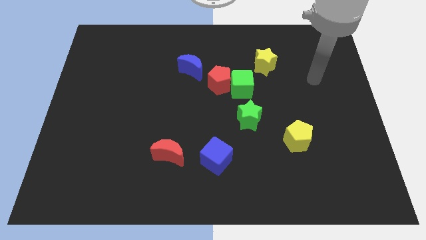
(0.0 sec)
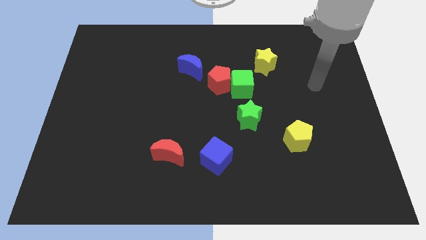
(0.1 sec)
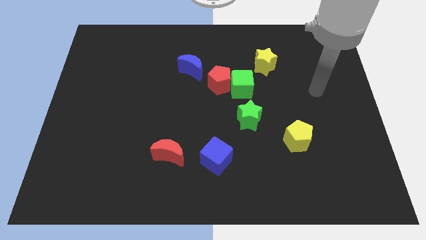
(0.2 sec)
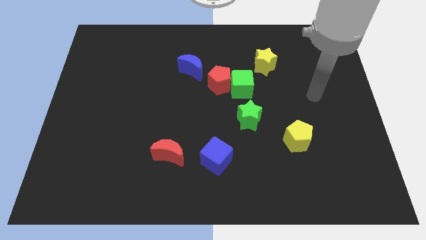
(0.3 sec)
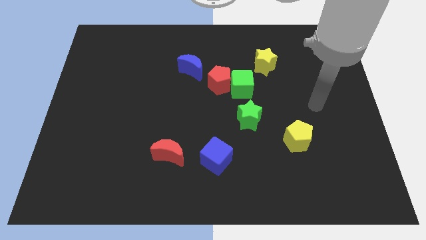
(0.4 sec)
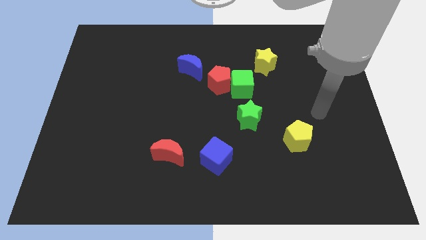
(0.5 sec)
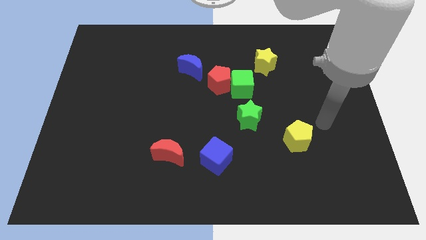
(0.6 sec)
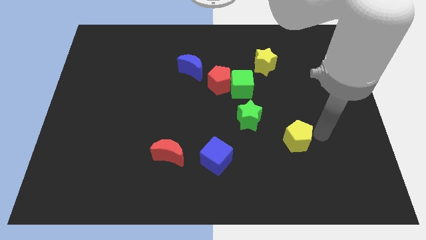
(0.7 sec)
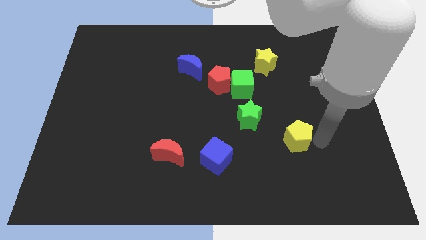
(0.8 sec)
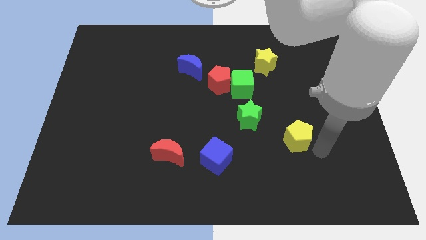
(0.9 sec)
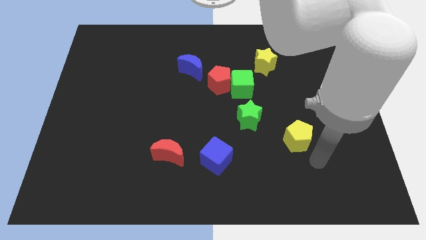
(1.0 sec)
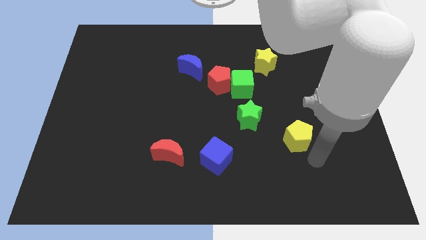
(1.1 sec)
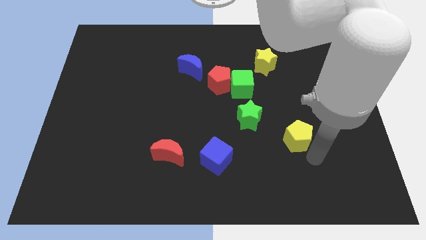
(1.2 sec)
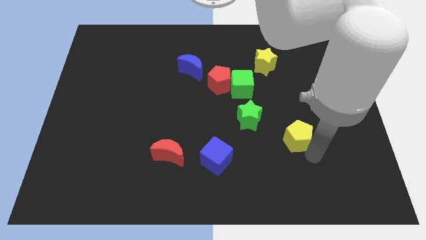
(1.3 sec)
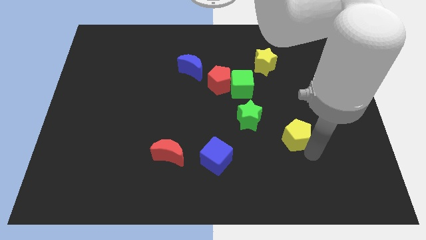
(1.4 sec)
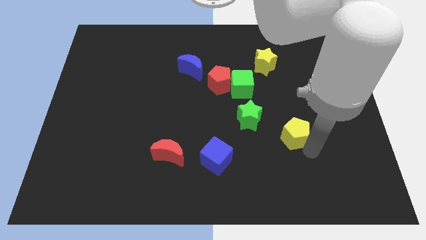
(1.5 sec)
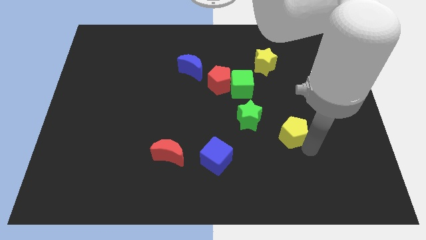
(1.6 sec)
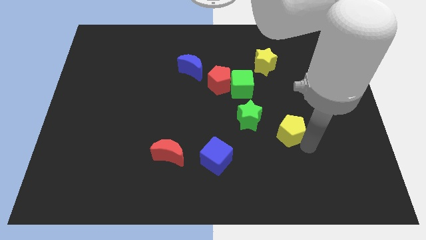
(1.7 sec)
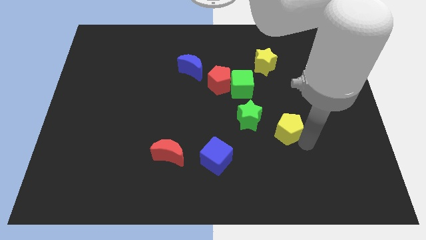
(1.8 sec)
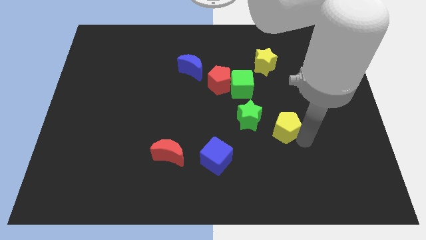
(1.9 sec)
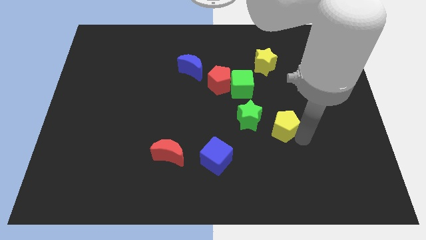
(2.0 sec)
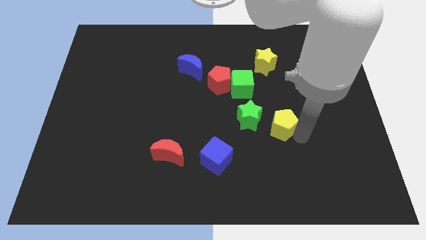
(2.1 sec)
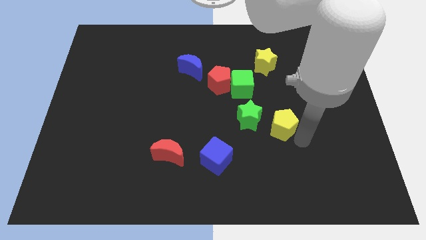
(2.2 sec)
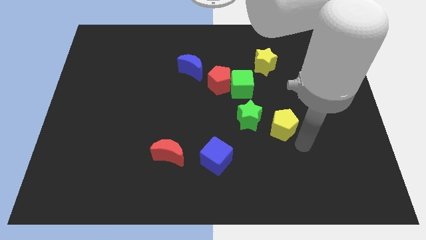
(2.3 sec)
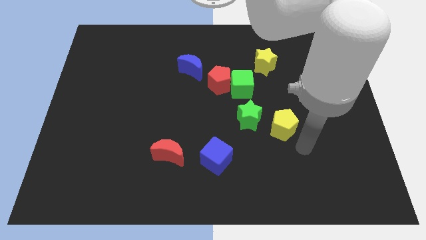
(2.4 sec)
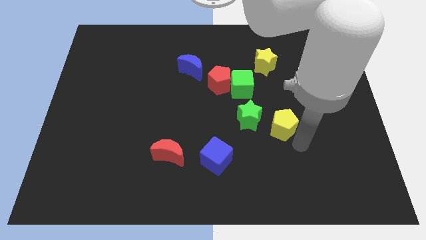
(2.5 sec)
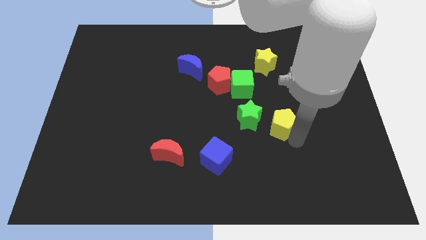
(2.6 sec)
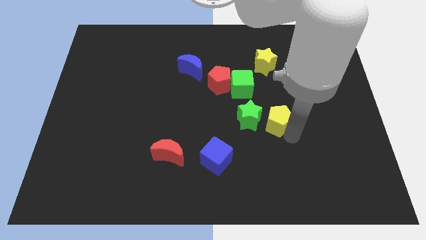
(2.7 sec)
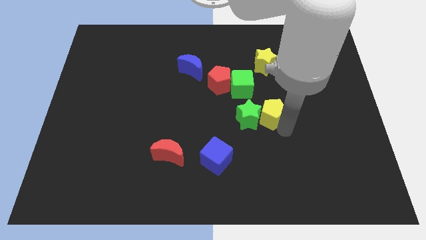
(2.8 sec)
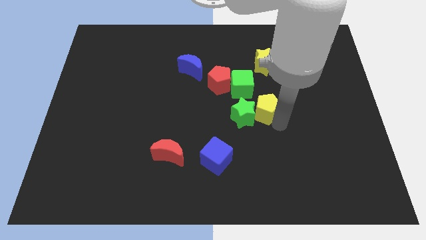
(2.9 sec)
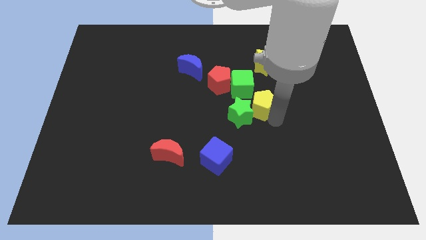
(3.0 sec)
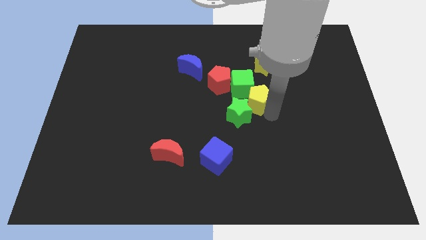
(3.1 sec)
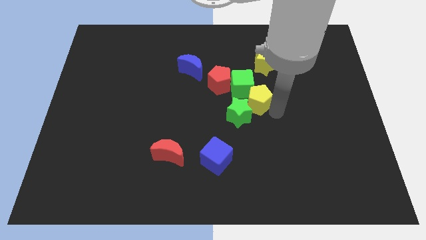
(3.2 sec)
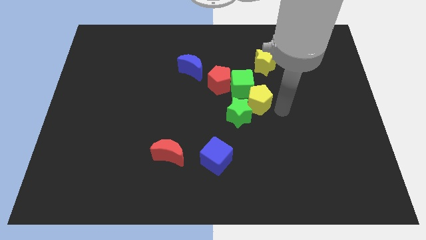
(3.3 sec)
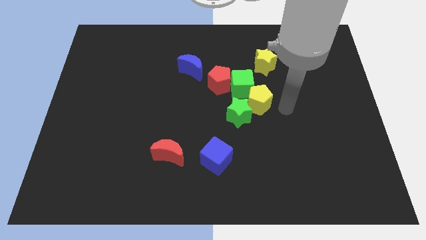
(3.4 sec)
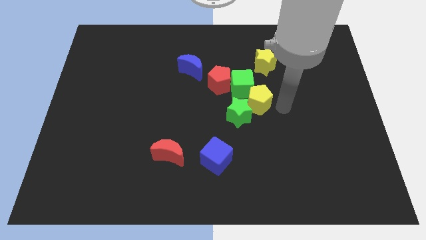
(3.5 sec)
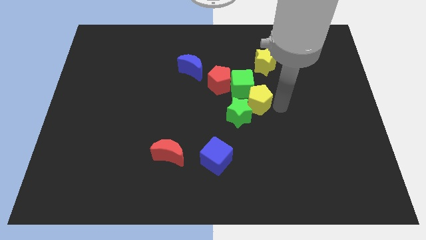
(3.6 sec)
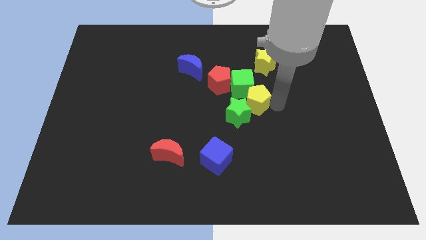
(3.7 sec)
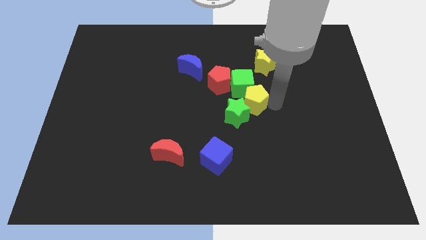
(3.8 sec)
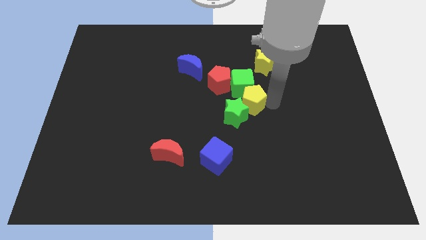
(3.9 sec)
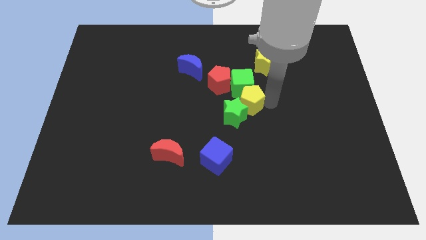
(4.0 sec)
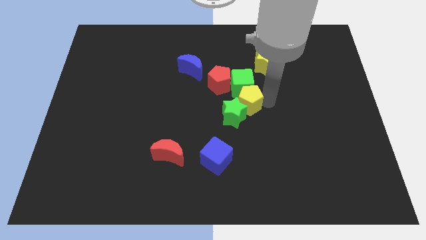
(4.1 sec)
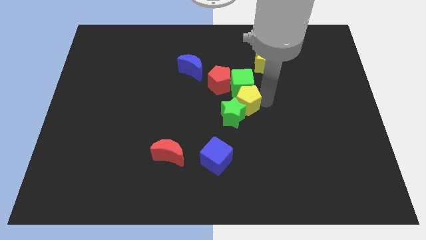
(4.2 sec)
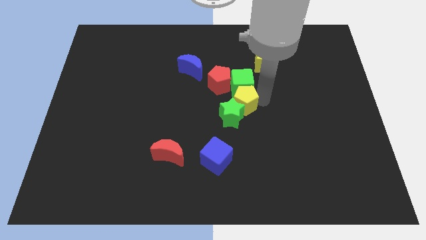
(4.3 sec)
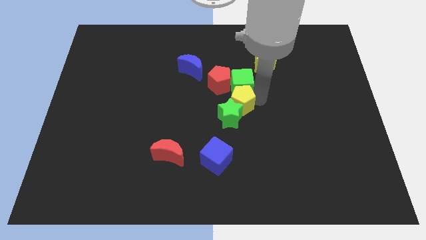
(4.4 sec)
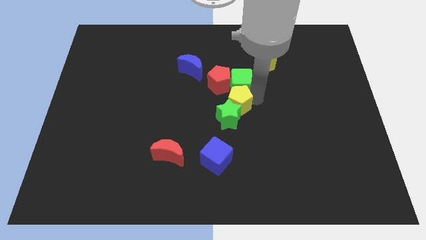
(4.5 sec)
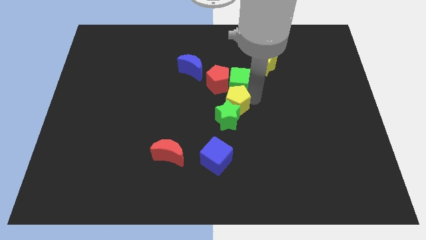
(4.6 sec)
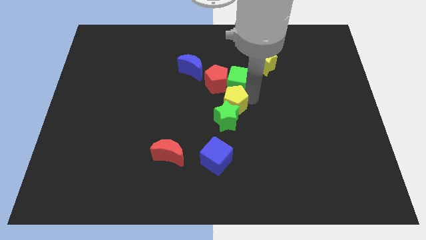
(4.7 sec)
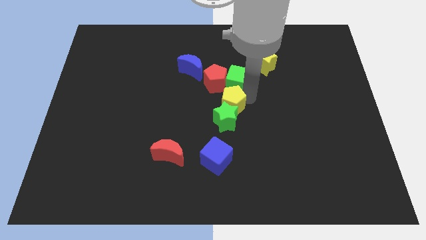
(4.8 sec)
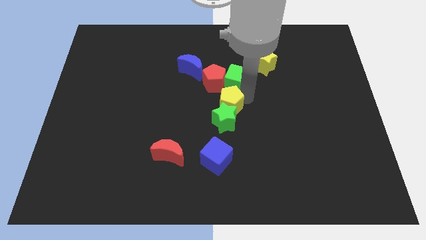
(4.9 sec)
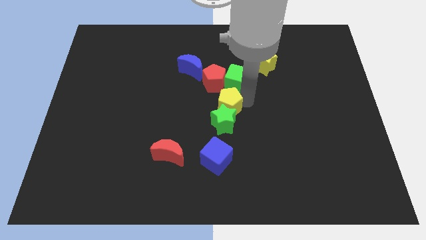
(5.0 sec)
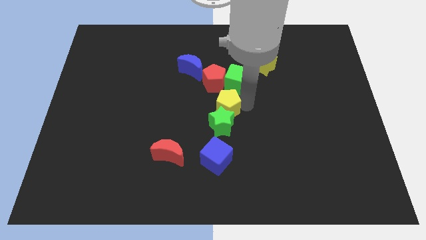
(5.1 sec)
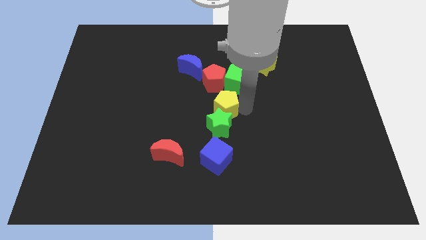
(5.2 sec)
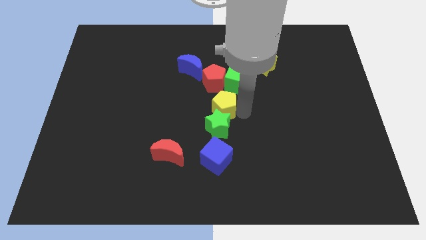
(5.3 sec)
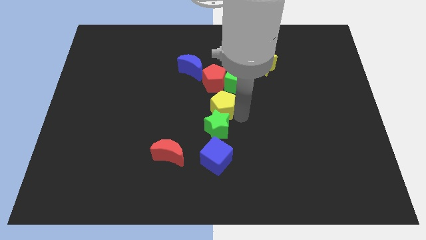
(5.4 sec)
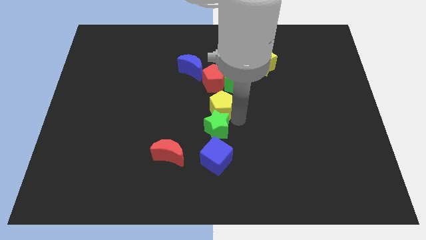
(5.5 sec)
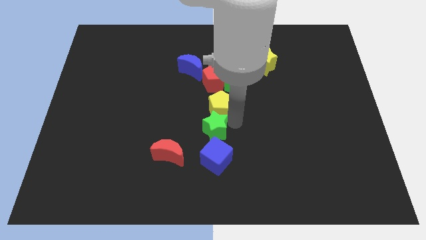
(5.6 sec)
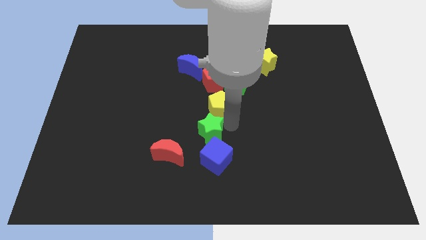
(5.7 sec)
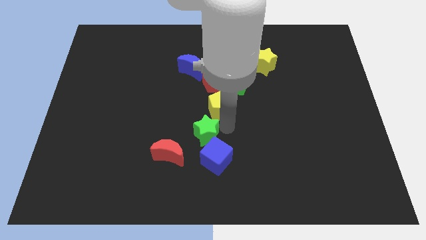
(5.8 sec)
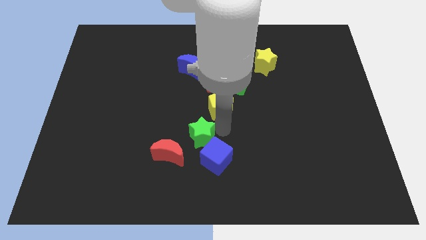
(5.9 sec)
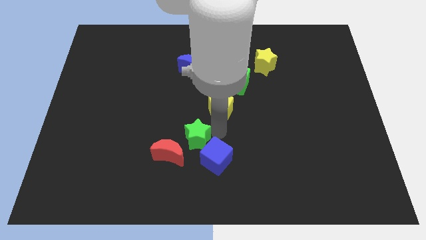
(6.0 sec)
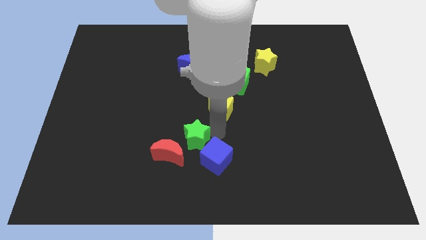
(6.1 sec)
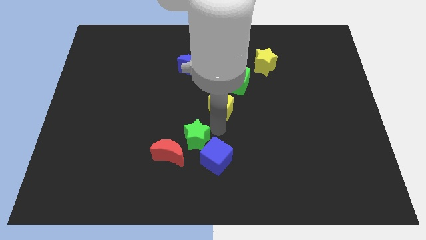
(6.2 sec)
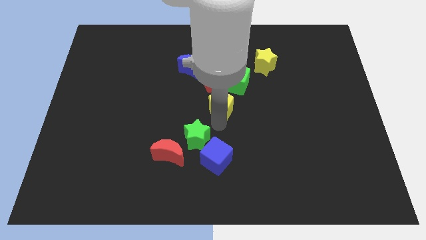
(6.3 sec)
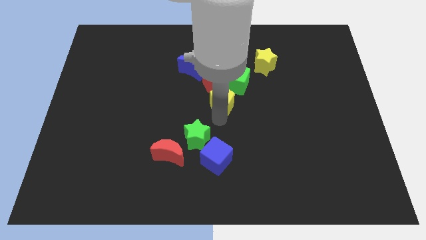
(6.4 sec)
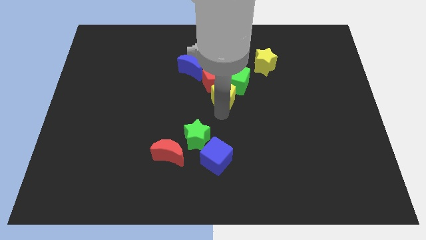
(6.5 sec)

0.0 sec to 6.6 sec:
move the yellow pentagon close to the red pentagon

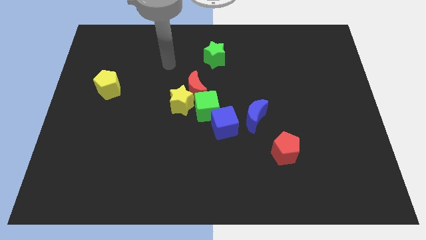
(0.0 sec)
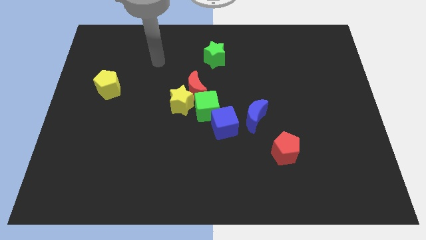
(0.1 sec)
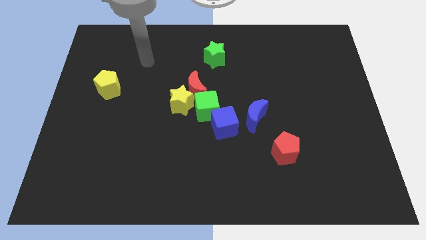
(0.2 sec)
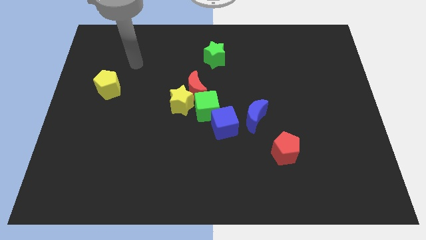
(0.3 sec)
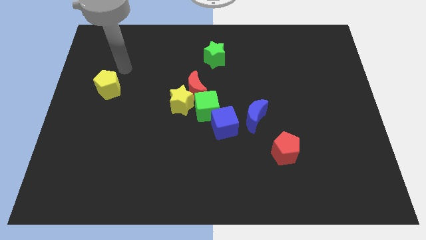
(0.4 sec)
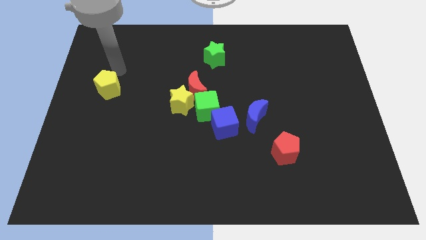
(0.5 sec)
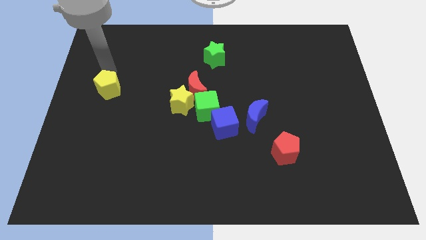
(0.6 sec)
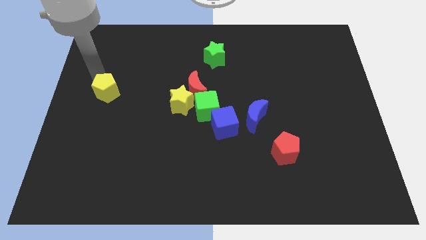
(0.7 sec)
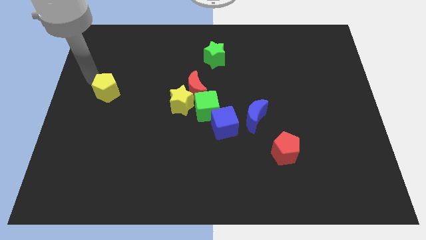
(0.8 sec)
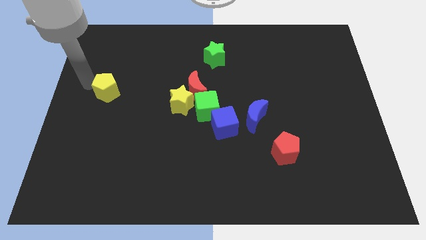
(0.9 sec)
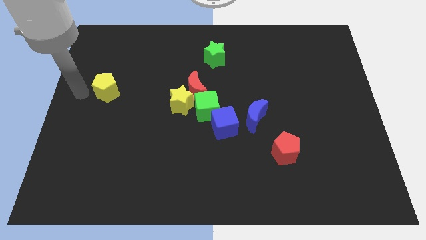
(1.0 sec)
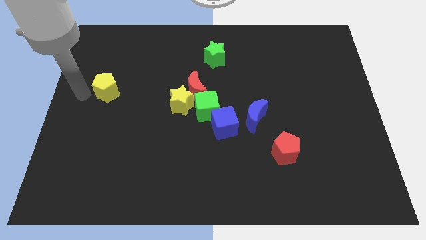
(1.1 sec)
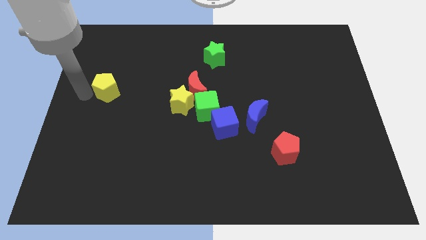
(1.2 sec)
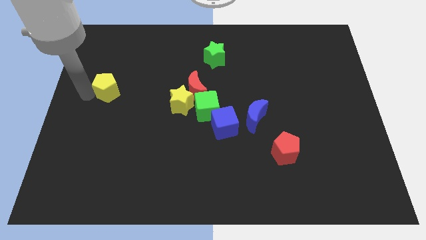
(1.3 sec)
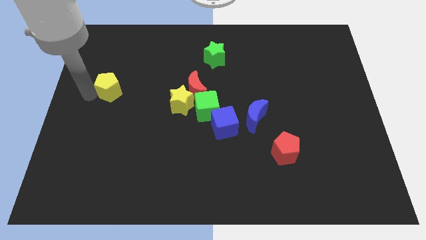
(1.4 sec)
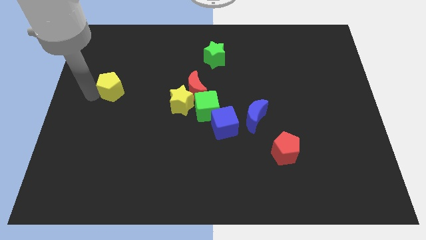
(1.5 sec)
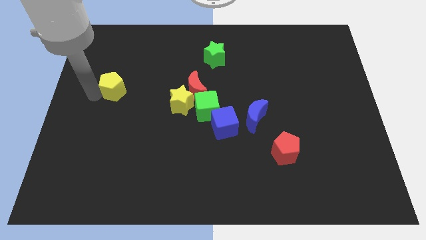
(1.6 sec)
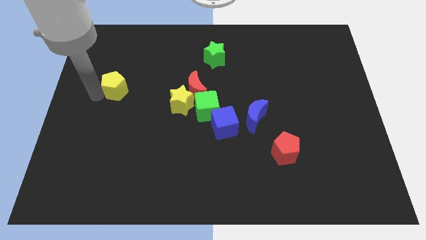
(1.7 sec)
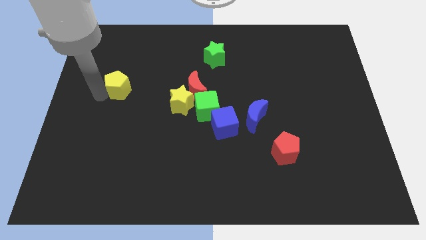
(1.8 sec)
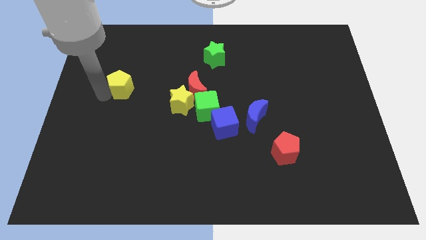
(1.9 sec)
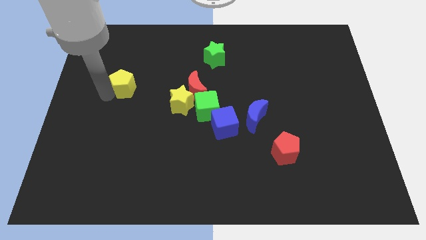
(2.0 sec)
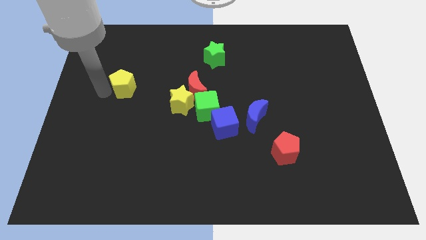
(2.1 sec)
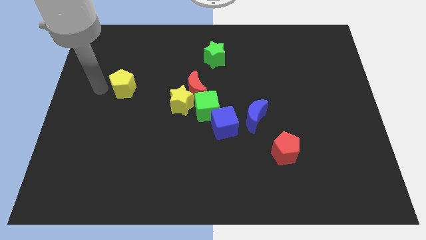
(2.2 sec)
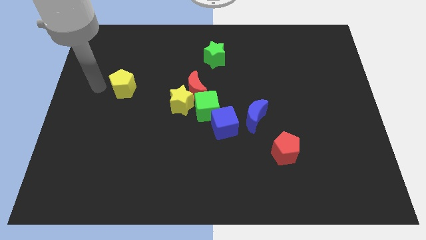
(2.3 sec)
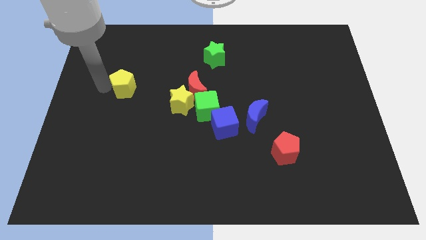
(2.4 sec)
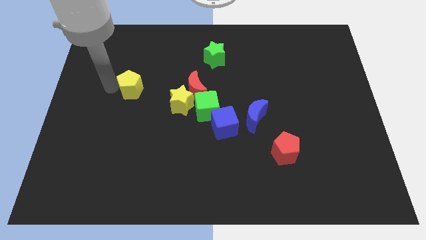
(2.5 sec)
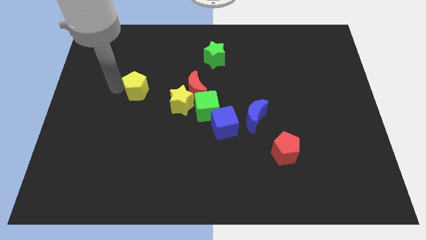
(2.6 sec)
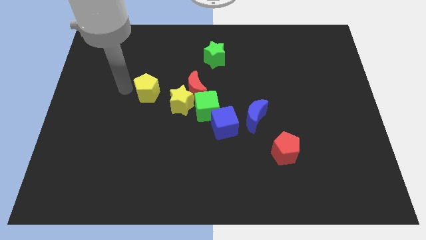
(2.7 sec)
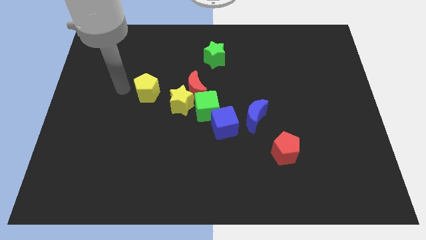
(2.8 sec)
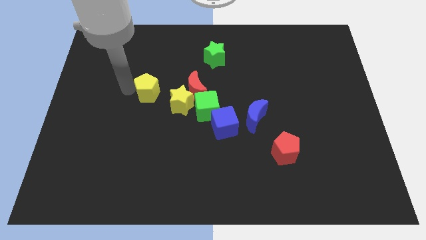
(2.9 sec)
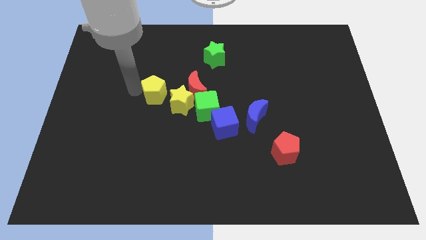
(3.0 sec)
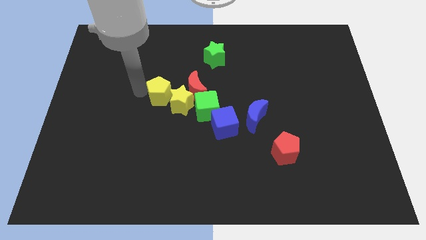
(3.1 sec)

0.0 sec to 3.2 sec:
slide the yellow pentagon close to the yellow star
